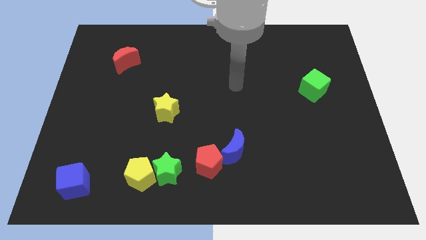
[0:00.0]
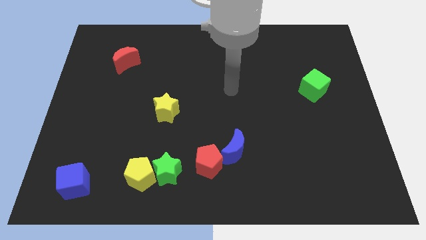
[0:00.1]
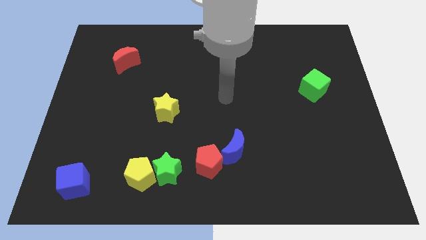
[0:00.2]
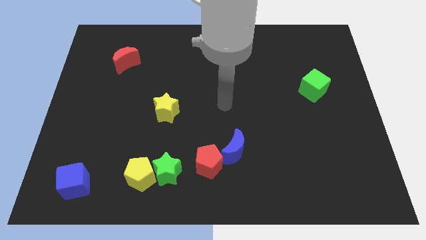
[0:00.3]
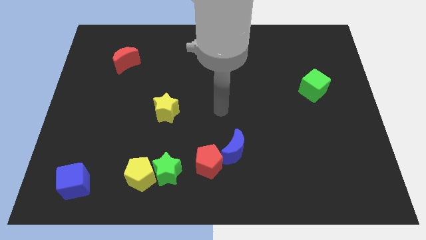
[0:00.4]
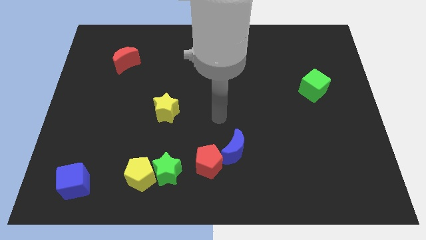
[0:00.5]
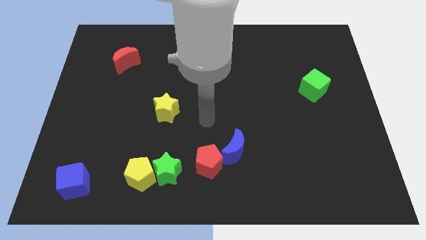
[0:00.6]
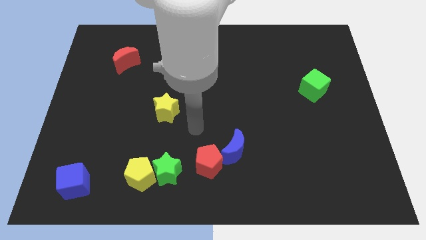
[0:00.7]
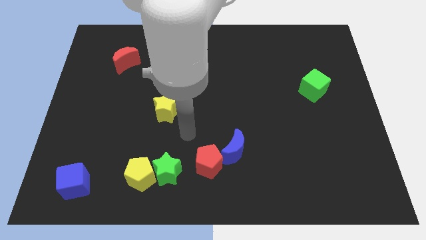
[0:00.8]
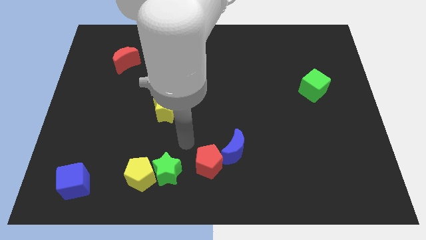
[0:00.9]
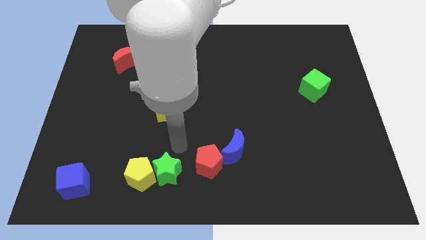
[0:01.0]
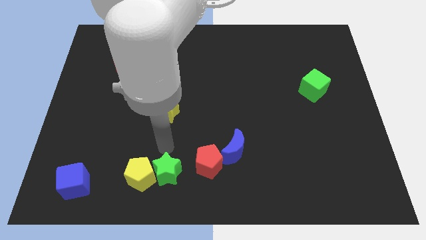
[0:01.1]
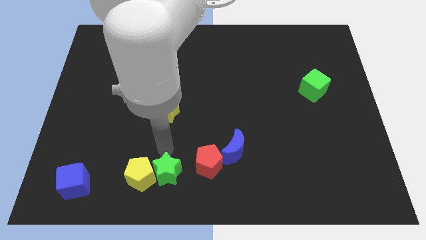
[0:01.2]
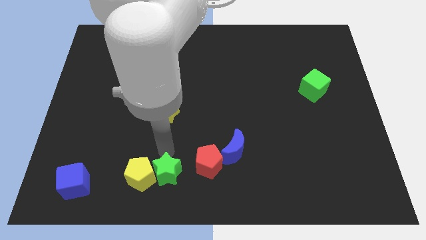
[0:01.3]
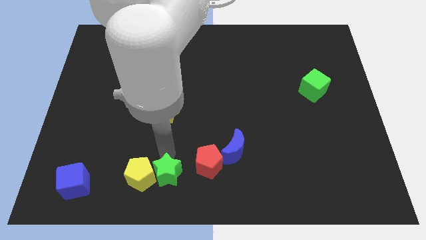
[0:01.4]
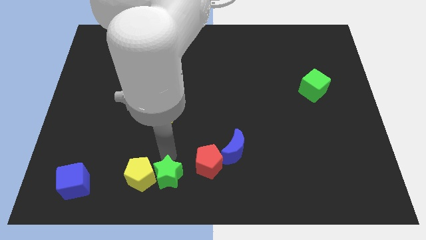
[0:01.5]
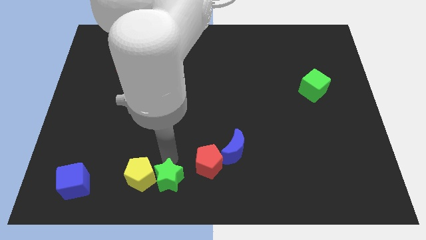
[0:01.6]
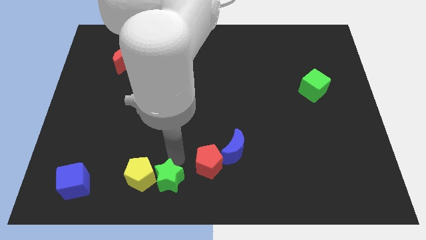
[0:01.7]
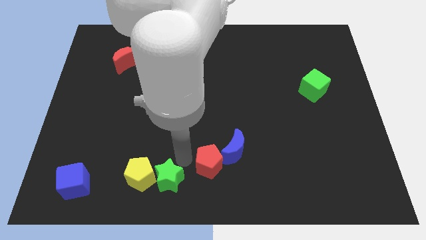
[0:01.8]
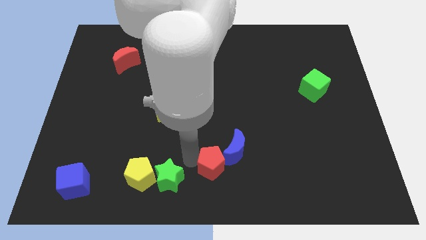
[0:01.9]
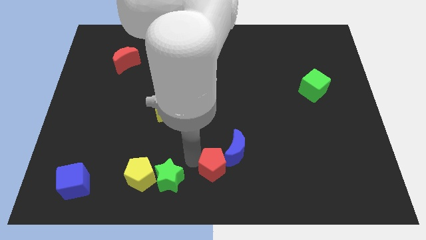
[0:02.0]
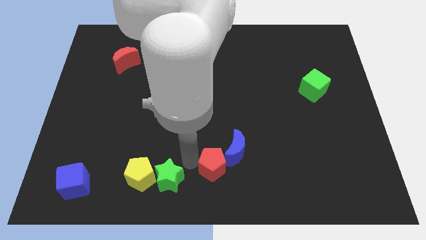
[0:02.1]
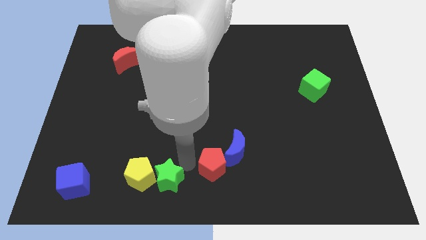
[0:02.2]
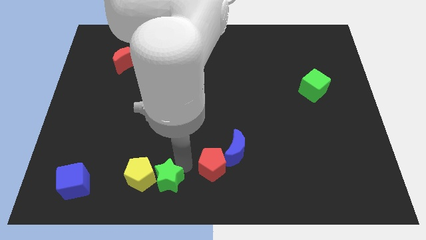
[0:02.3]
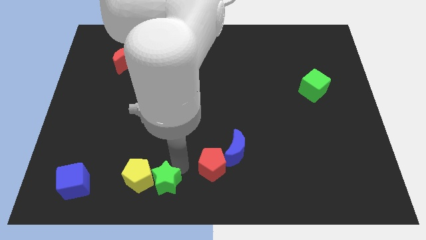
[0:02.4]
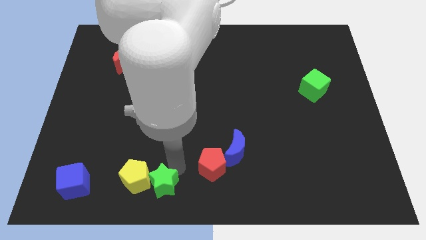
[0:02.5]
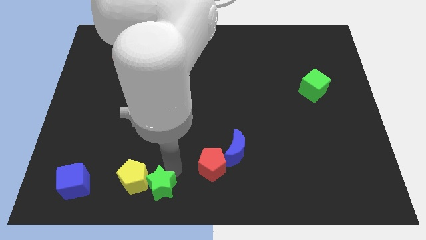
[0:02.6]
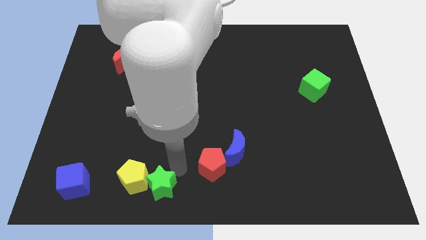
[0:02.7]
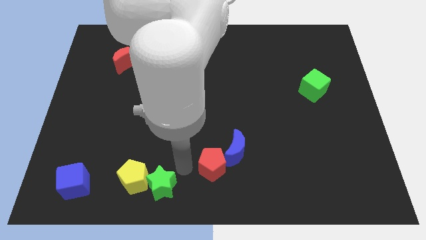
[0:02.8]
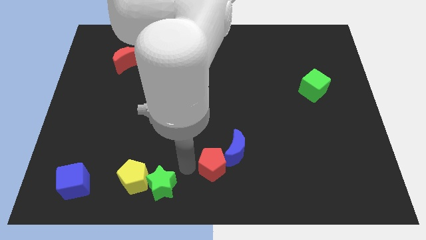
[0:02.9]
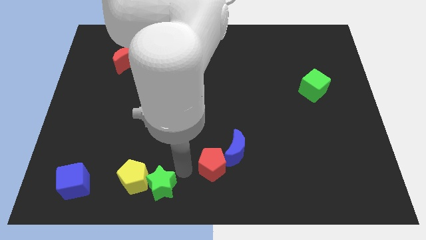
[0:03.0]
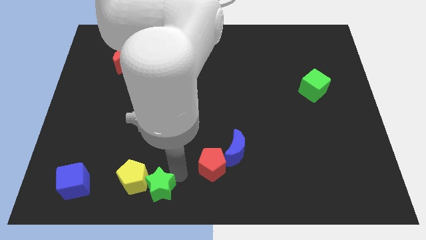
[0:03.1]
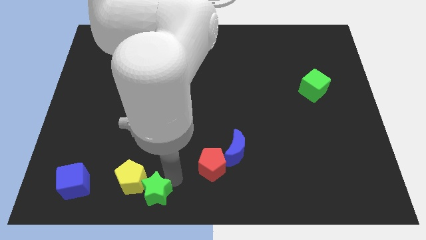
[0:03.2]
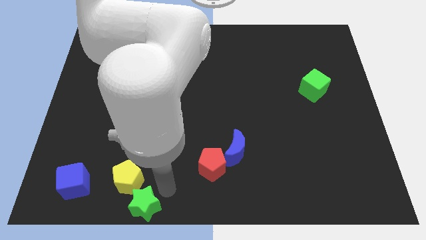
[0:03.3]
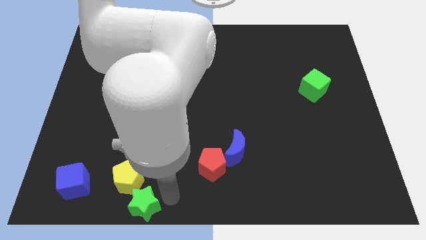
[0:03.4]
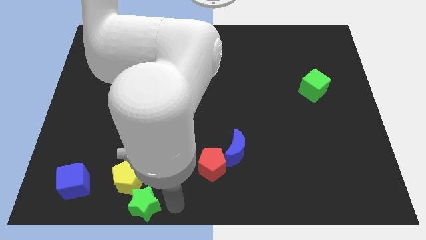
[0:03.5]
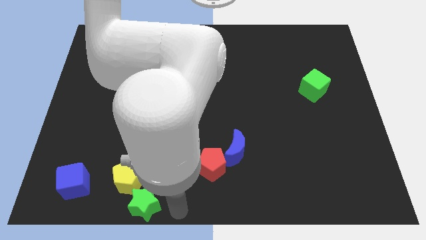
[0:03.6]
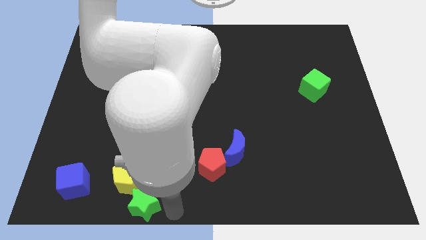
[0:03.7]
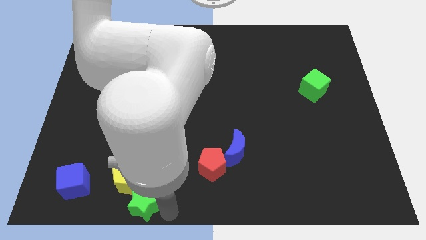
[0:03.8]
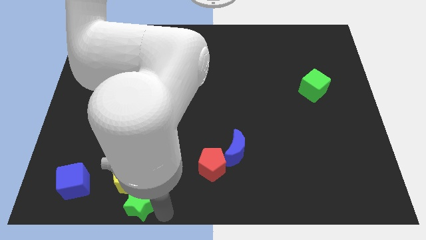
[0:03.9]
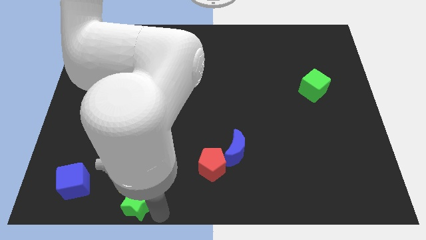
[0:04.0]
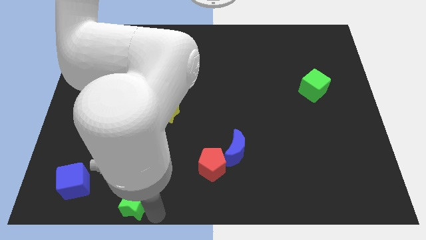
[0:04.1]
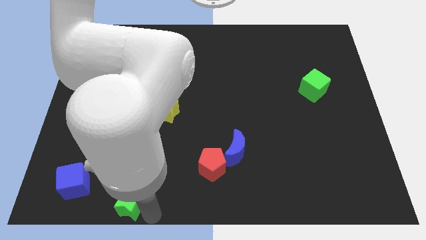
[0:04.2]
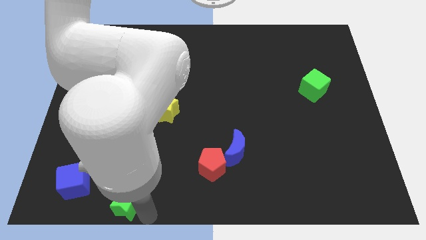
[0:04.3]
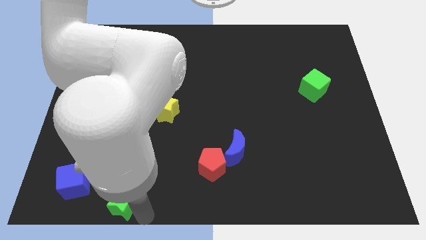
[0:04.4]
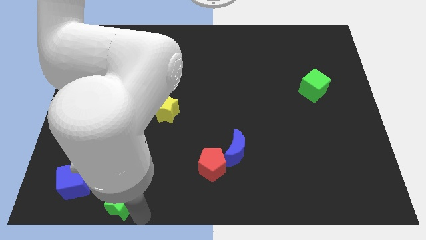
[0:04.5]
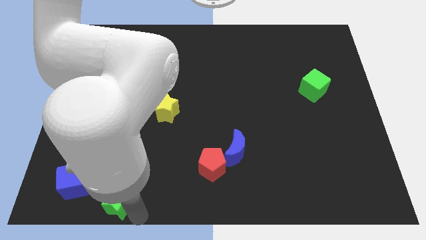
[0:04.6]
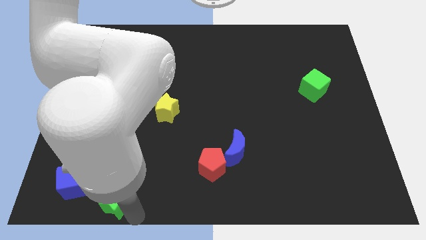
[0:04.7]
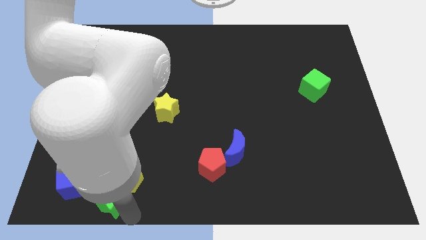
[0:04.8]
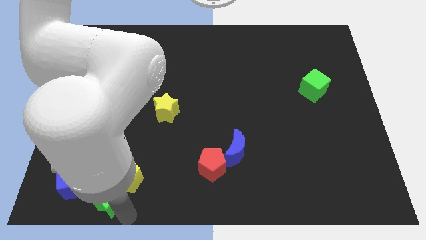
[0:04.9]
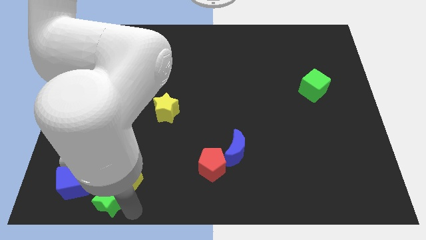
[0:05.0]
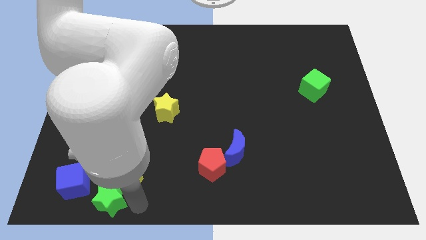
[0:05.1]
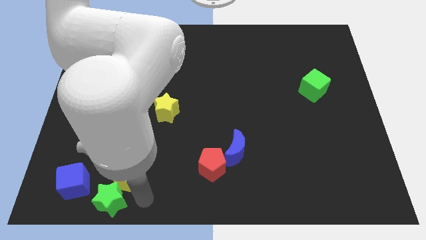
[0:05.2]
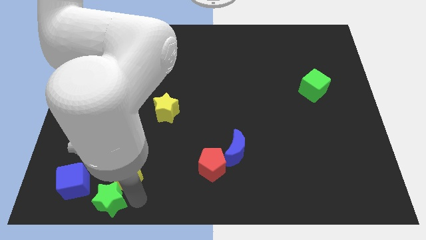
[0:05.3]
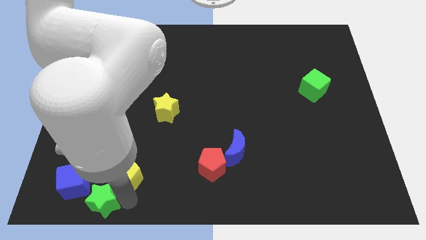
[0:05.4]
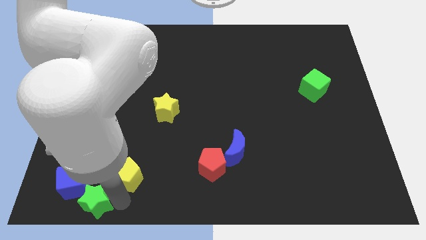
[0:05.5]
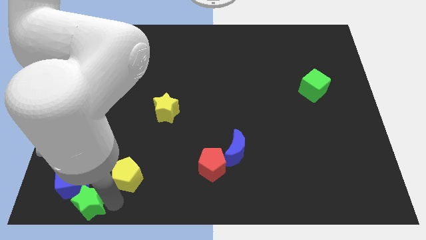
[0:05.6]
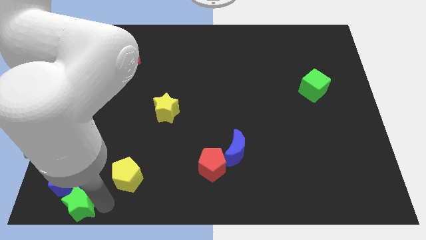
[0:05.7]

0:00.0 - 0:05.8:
move the green star to the bottom left

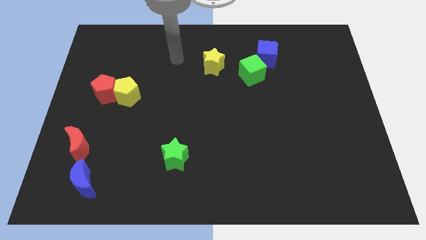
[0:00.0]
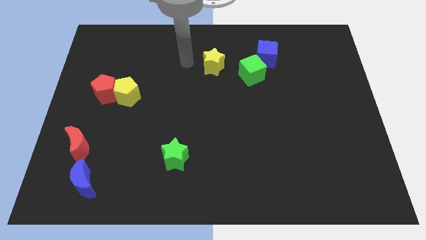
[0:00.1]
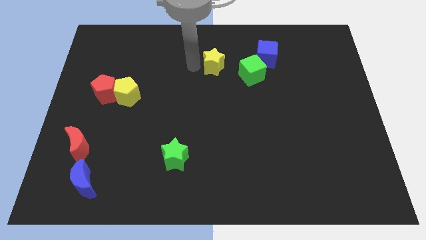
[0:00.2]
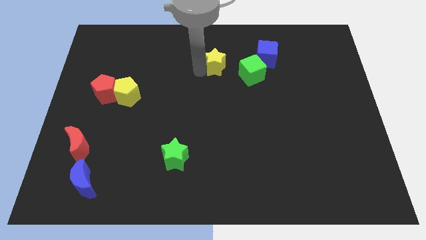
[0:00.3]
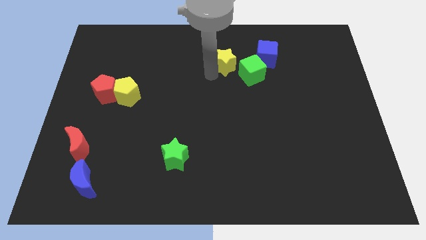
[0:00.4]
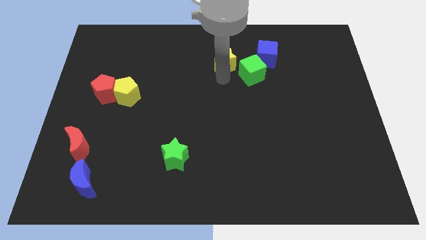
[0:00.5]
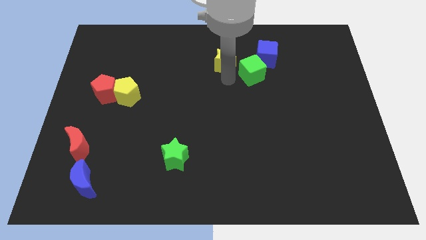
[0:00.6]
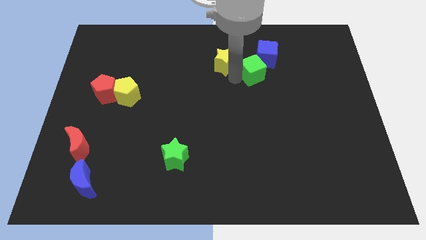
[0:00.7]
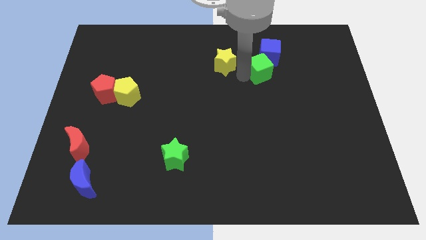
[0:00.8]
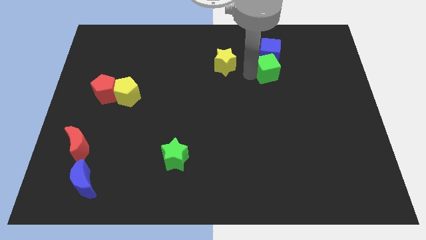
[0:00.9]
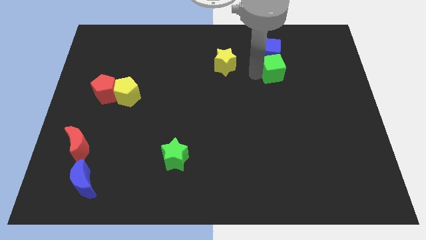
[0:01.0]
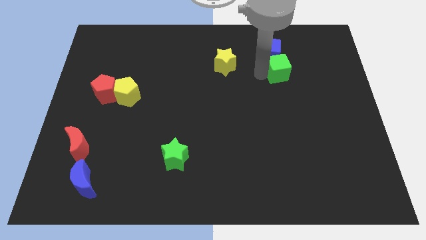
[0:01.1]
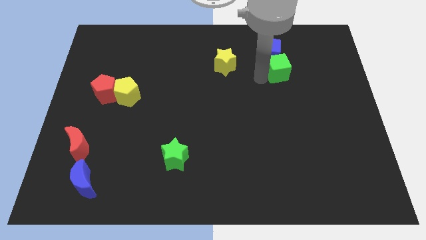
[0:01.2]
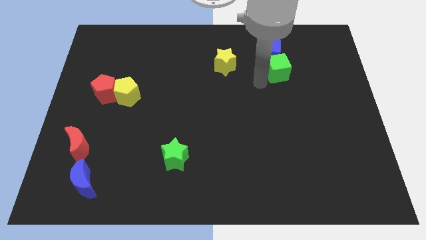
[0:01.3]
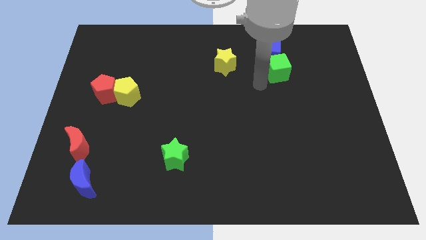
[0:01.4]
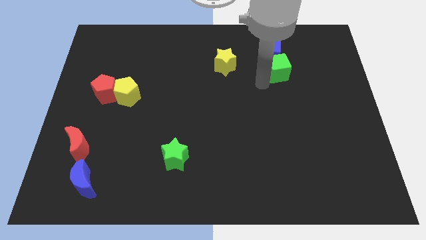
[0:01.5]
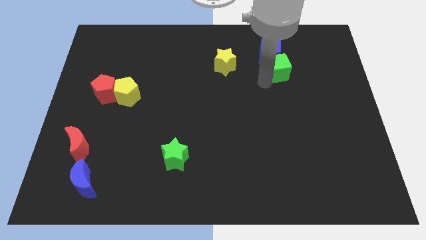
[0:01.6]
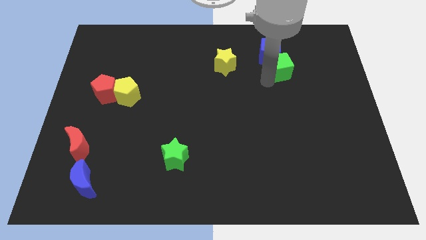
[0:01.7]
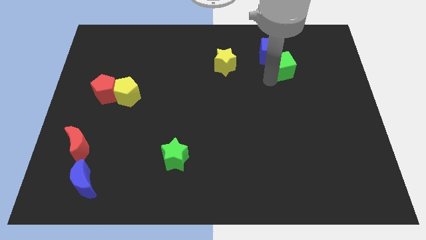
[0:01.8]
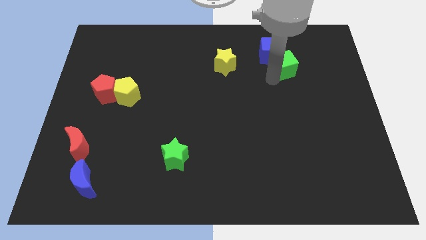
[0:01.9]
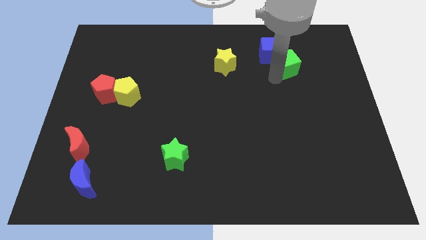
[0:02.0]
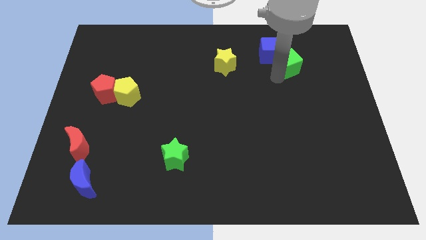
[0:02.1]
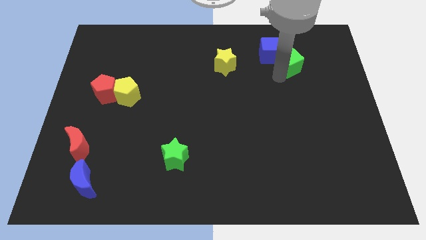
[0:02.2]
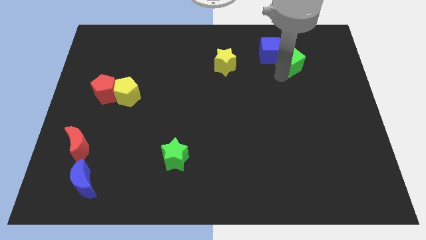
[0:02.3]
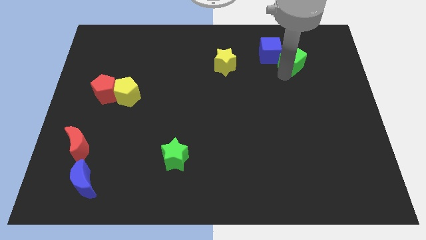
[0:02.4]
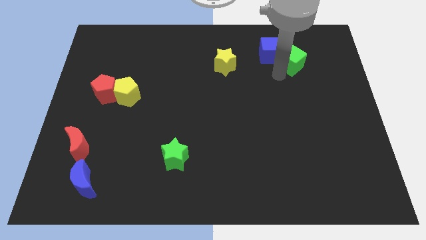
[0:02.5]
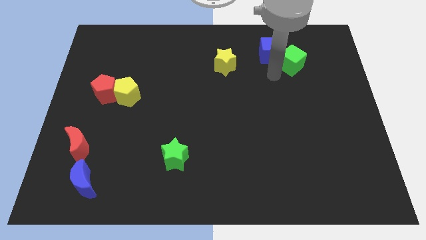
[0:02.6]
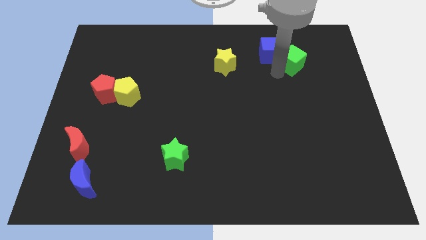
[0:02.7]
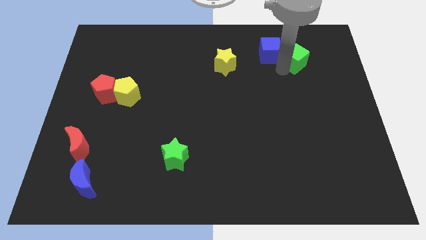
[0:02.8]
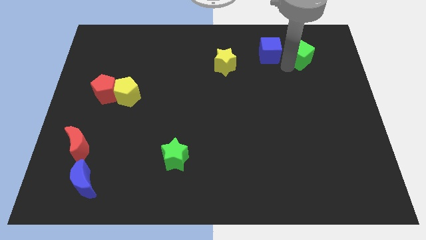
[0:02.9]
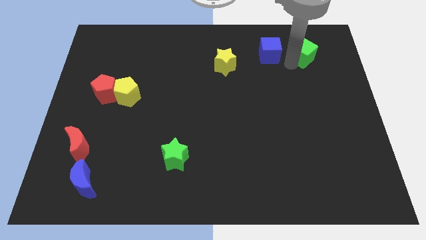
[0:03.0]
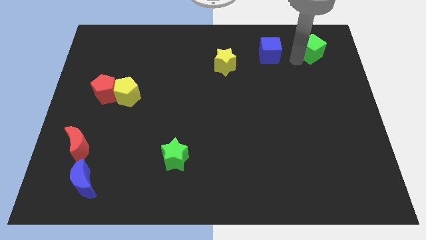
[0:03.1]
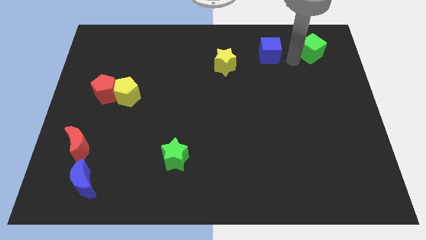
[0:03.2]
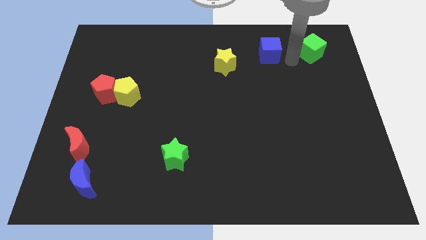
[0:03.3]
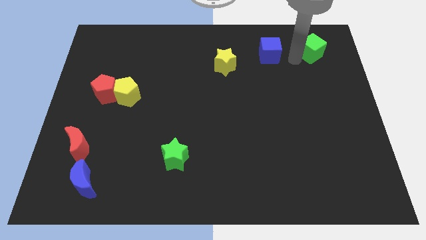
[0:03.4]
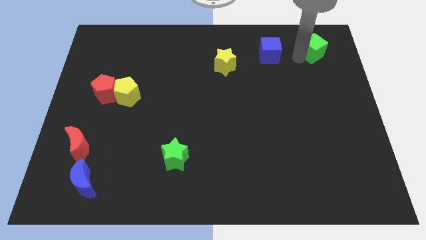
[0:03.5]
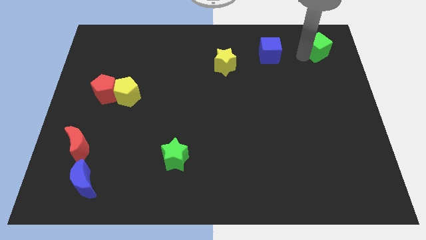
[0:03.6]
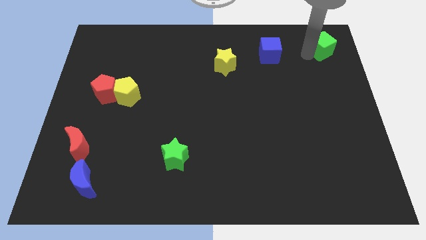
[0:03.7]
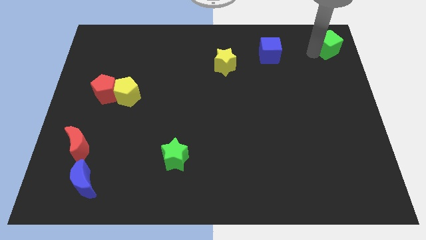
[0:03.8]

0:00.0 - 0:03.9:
push the green cube to the upper right corner
